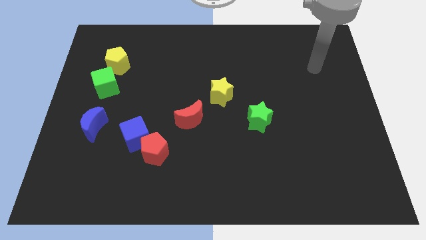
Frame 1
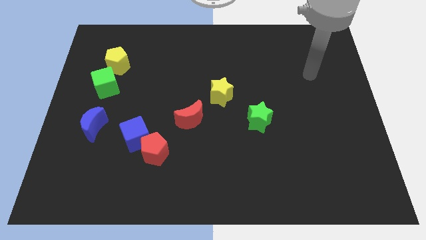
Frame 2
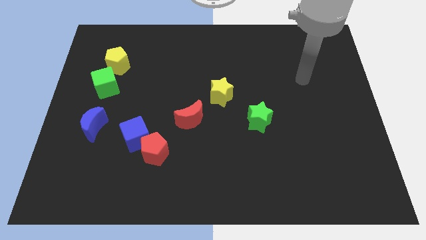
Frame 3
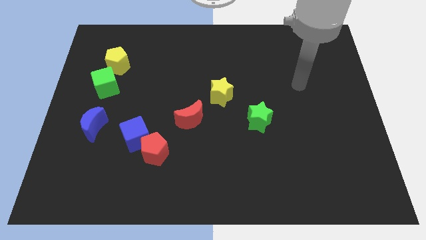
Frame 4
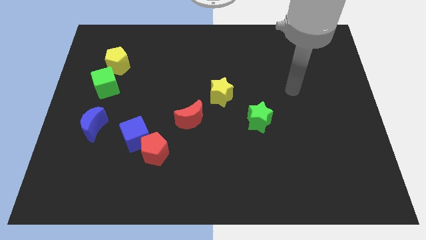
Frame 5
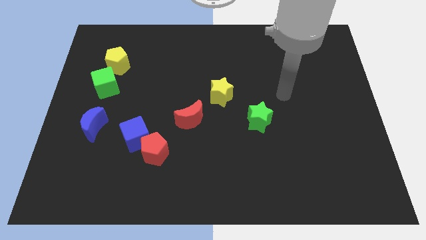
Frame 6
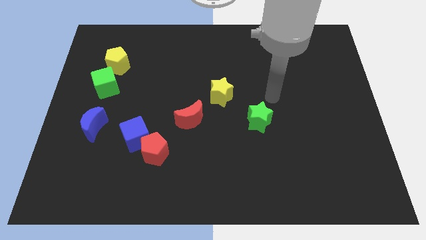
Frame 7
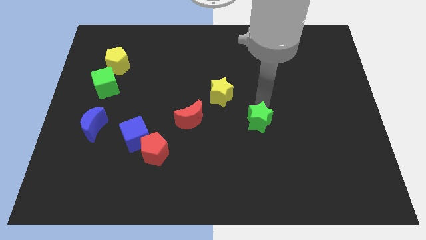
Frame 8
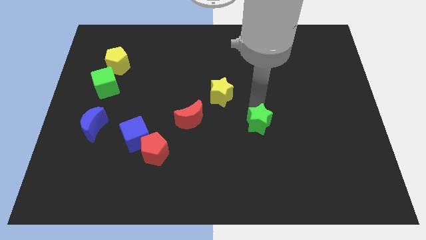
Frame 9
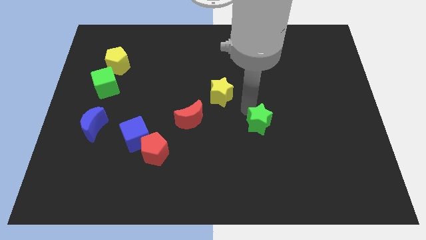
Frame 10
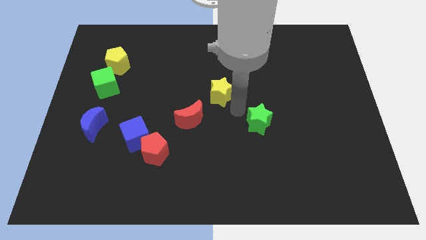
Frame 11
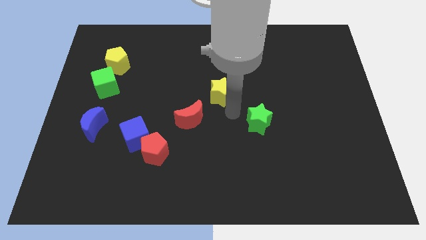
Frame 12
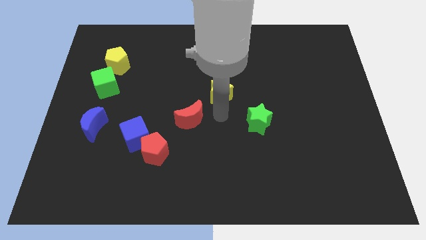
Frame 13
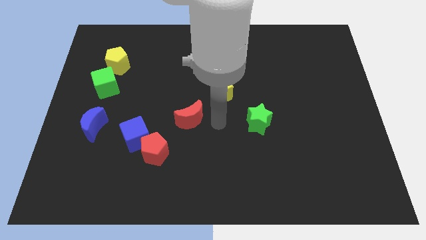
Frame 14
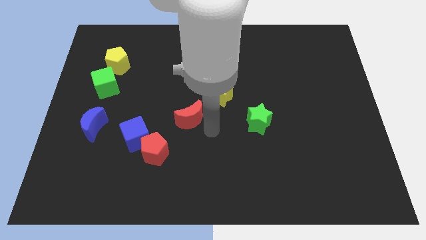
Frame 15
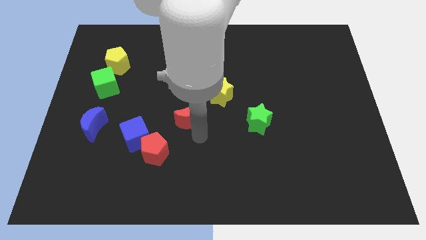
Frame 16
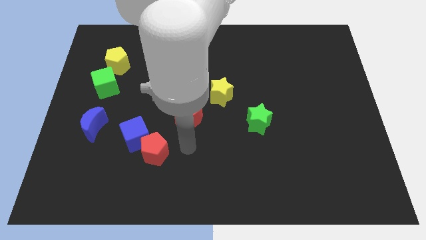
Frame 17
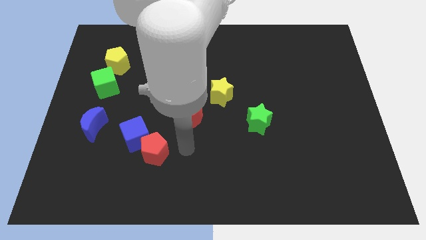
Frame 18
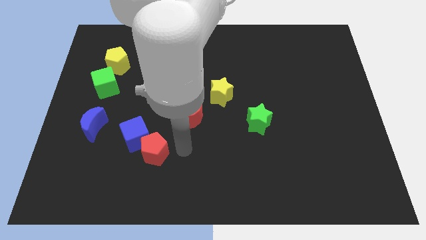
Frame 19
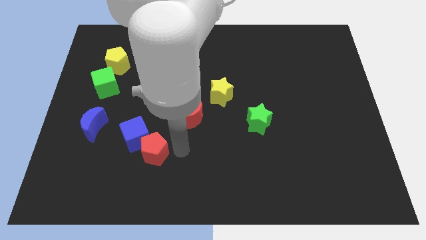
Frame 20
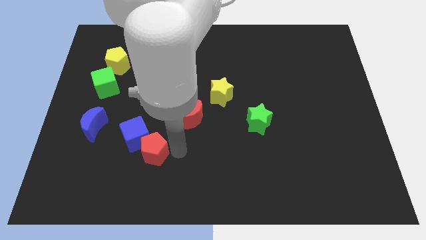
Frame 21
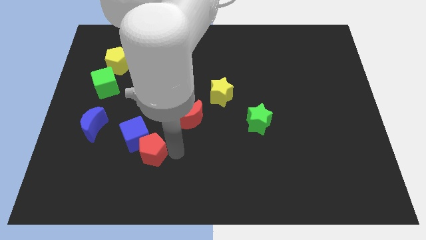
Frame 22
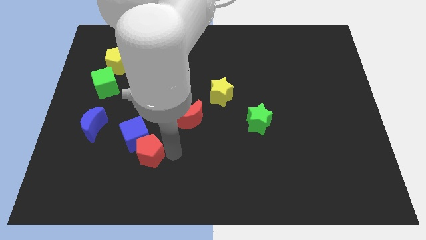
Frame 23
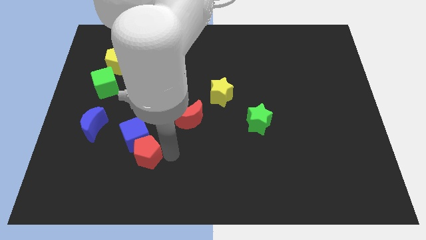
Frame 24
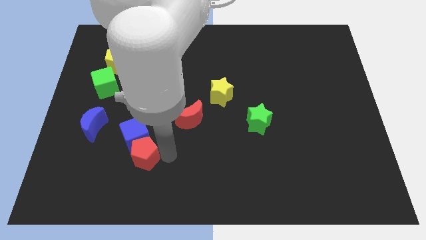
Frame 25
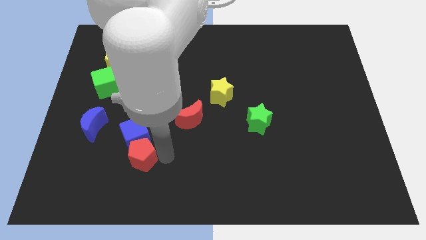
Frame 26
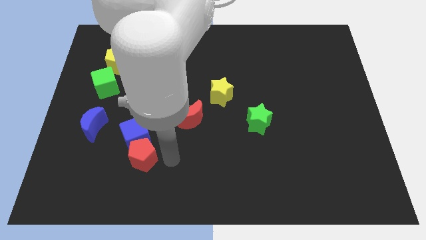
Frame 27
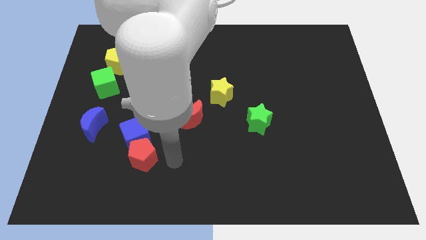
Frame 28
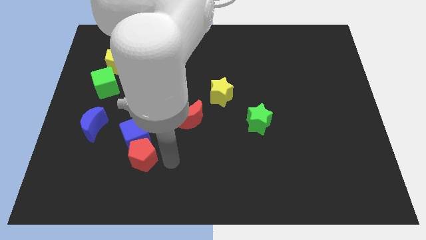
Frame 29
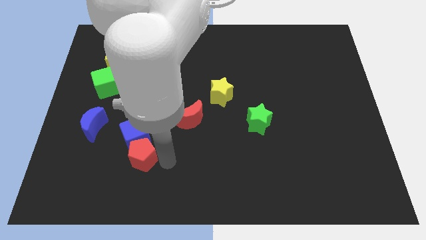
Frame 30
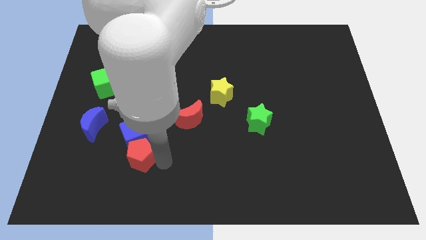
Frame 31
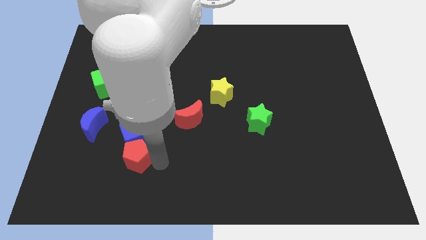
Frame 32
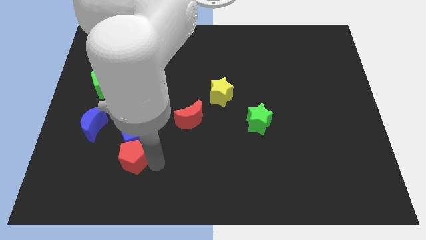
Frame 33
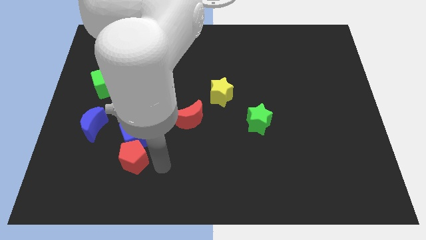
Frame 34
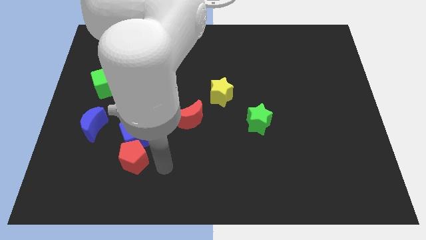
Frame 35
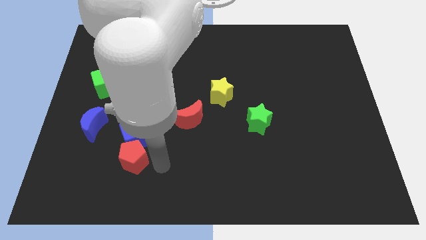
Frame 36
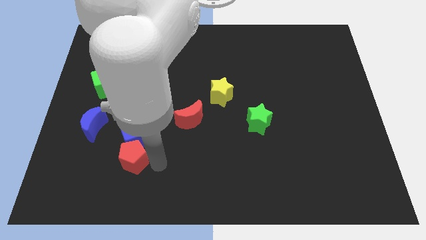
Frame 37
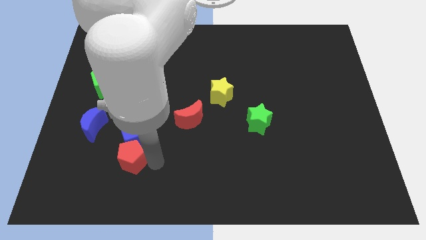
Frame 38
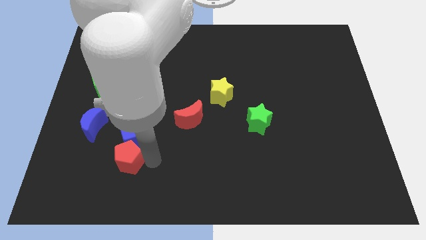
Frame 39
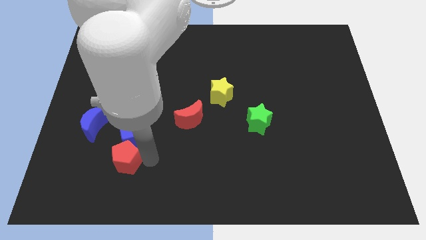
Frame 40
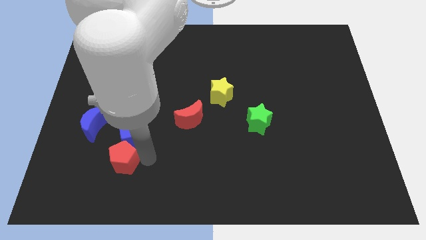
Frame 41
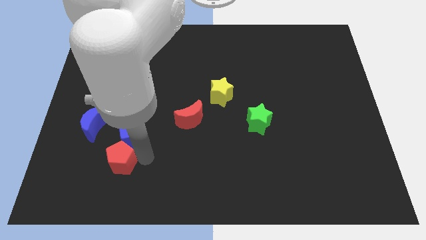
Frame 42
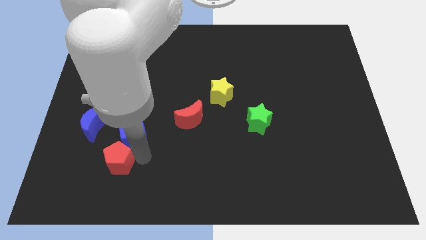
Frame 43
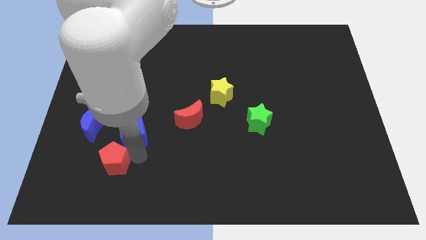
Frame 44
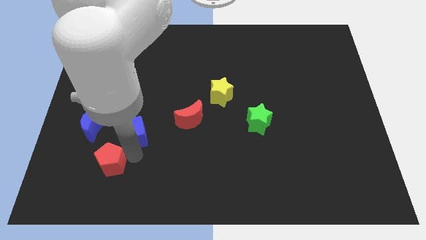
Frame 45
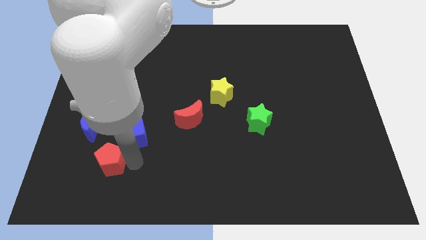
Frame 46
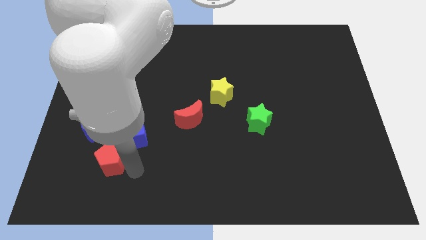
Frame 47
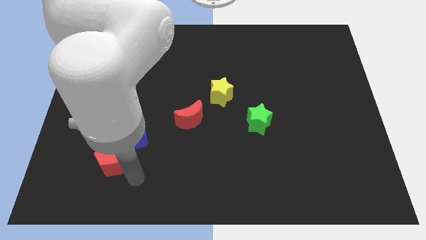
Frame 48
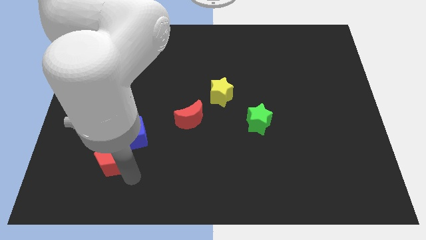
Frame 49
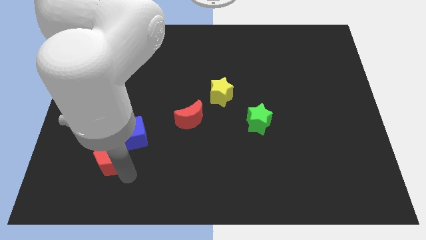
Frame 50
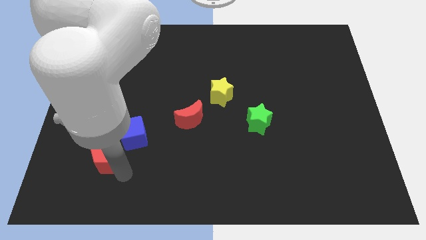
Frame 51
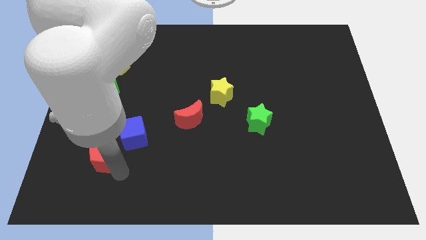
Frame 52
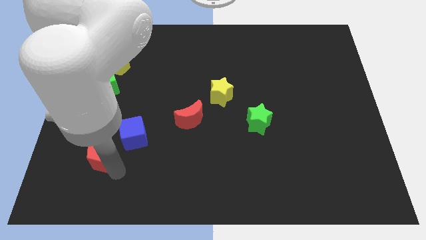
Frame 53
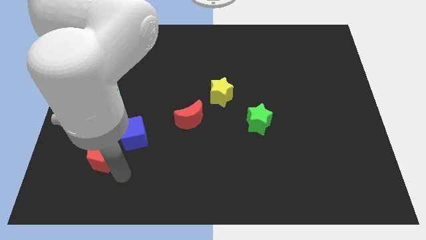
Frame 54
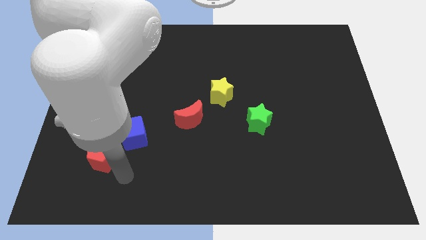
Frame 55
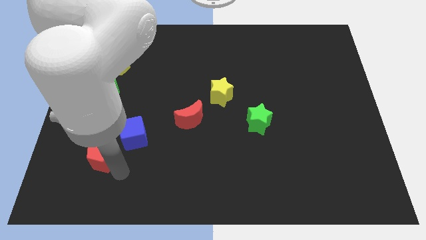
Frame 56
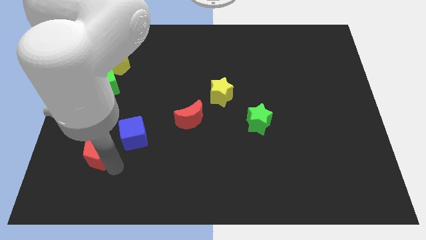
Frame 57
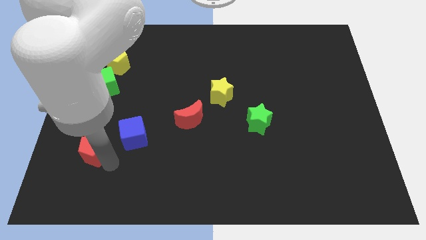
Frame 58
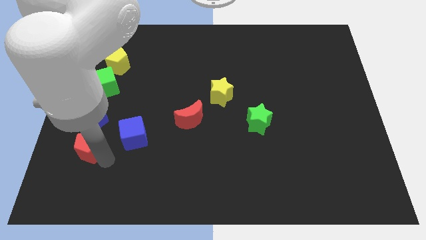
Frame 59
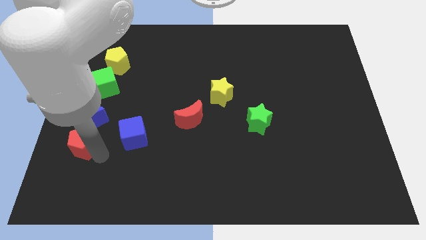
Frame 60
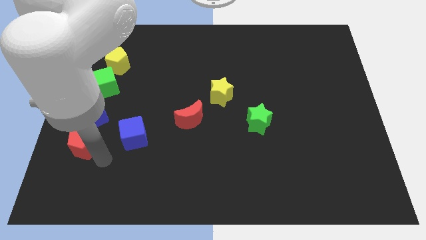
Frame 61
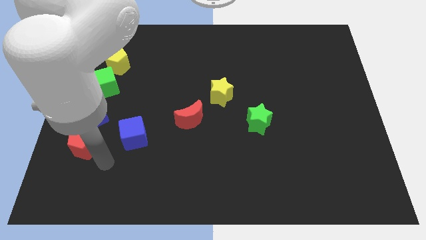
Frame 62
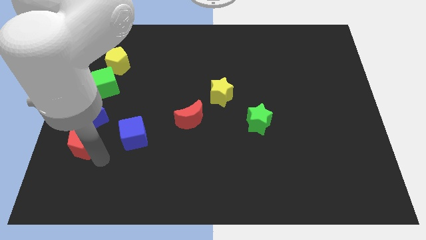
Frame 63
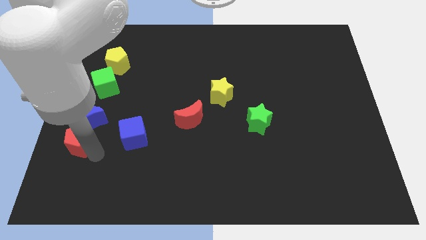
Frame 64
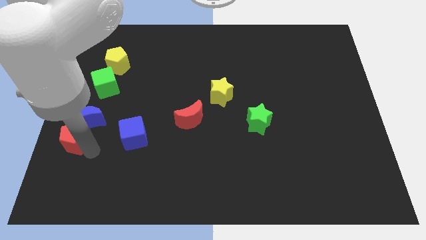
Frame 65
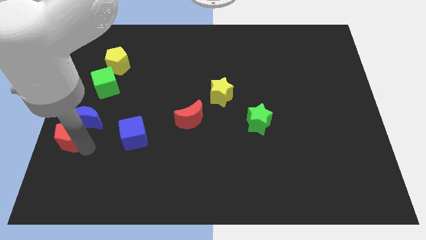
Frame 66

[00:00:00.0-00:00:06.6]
put the red pentagon to the left side
